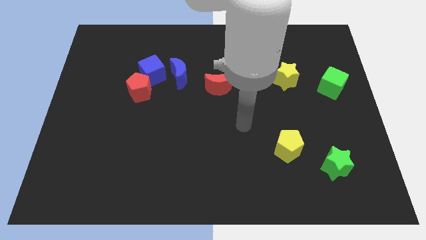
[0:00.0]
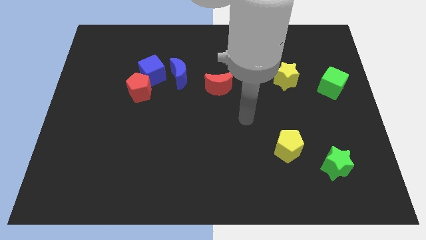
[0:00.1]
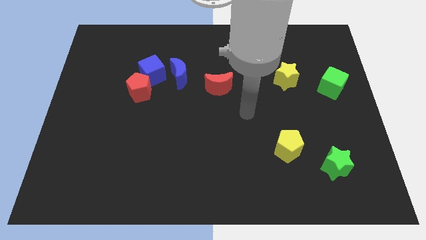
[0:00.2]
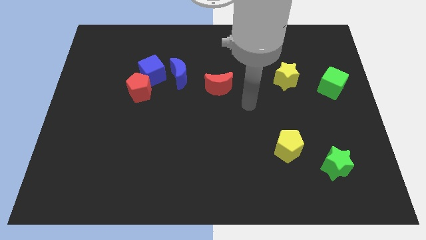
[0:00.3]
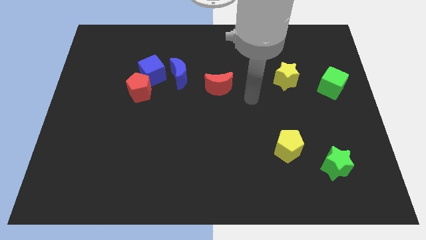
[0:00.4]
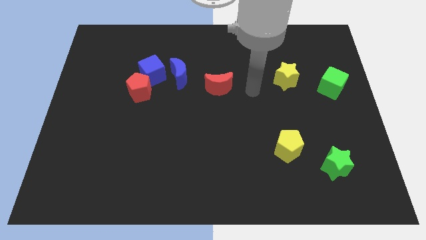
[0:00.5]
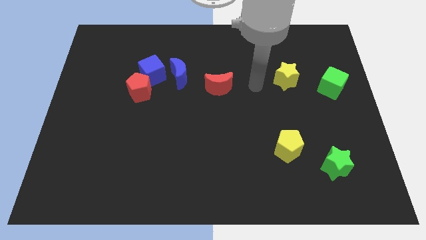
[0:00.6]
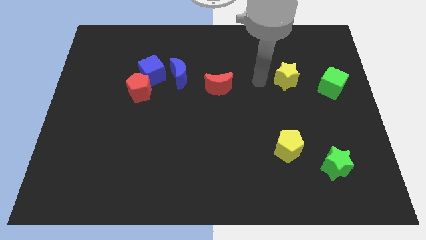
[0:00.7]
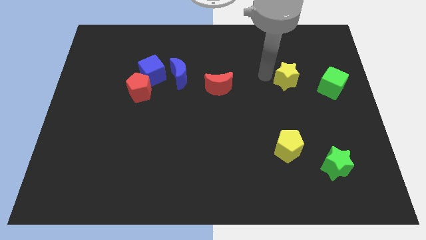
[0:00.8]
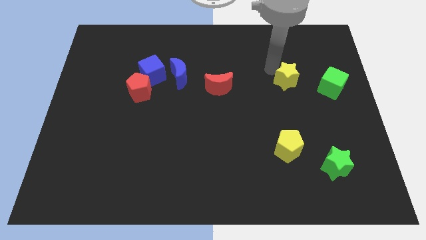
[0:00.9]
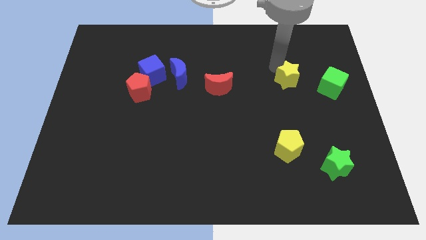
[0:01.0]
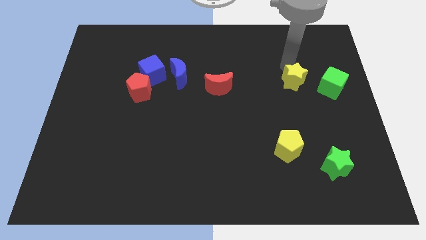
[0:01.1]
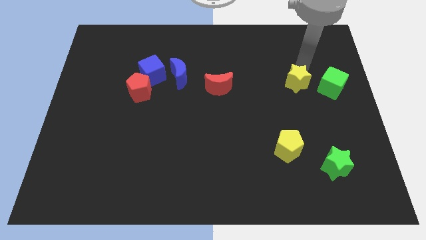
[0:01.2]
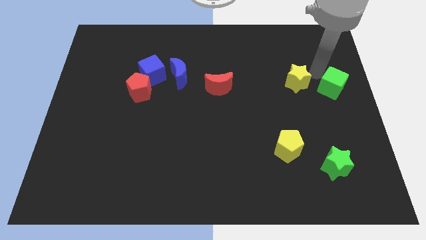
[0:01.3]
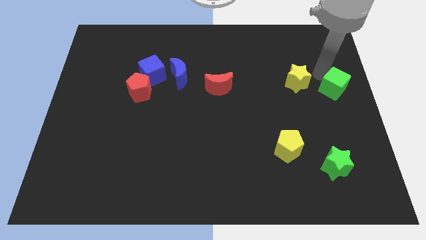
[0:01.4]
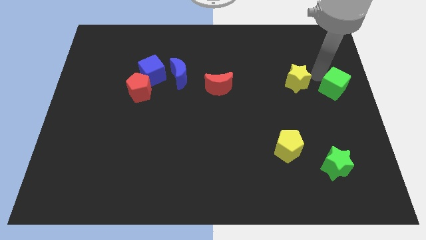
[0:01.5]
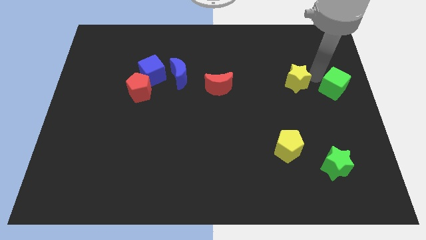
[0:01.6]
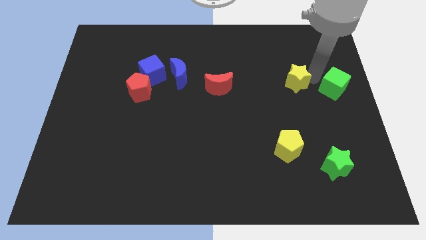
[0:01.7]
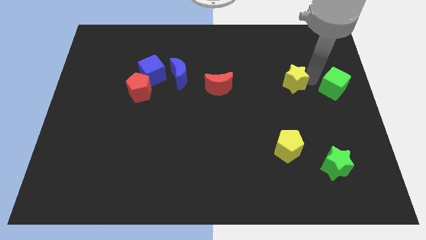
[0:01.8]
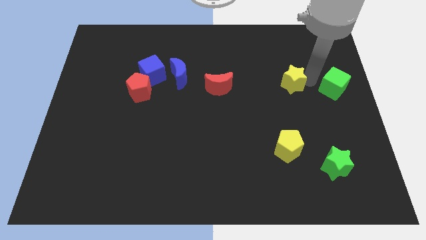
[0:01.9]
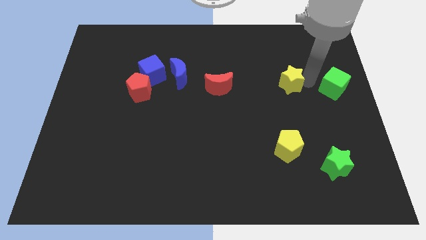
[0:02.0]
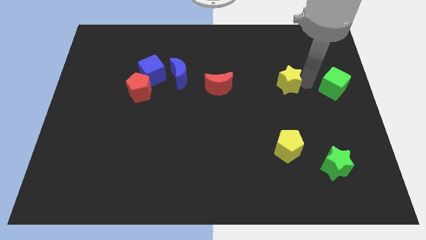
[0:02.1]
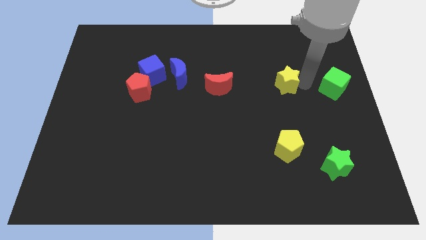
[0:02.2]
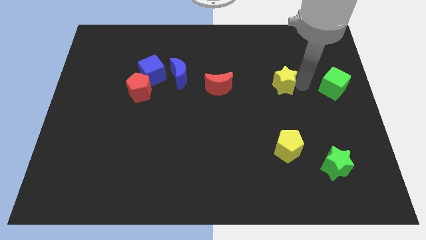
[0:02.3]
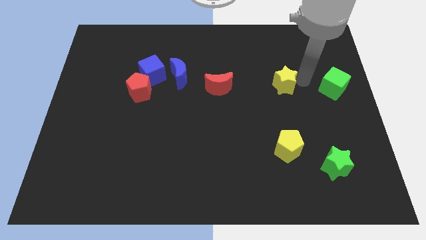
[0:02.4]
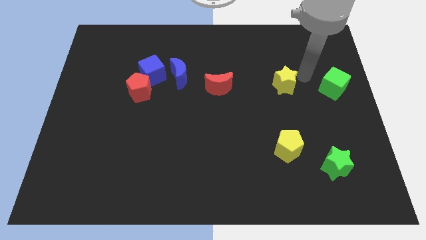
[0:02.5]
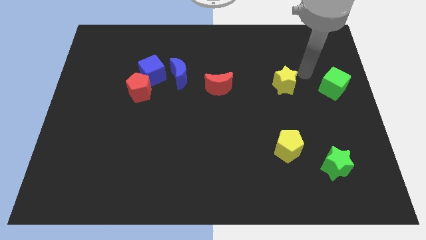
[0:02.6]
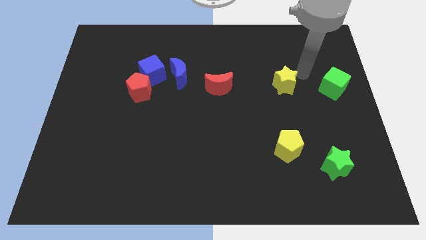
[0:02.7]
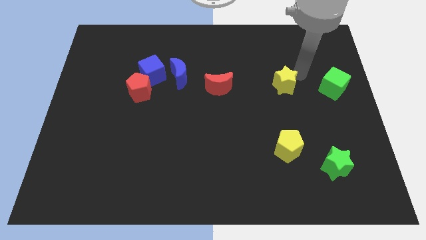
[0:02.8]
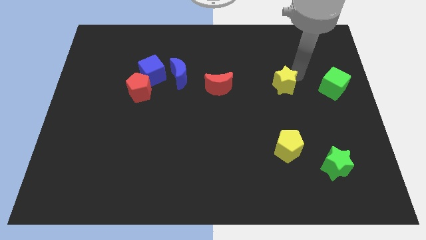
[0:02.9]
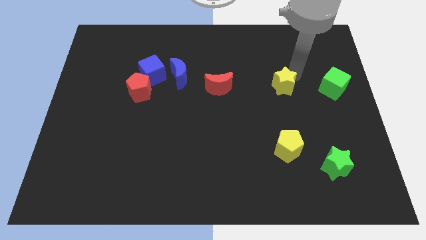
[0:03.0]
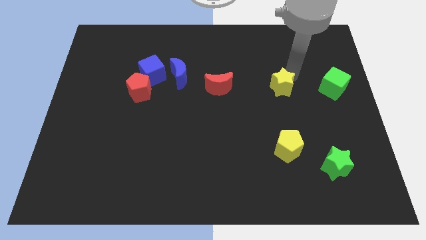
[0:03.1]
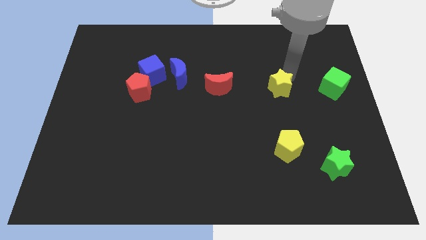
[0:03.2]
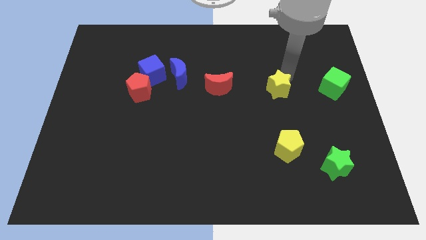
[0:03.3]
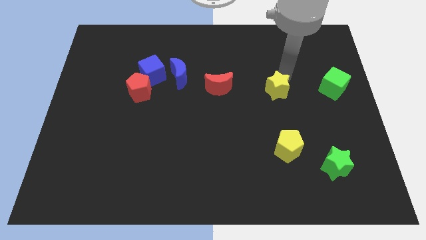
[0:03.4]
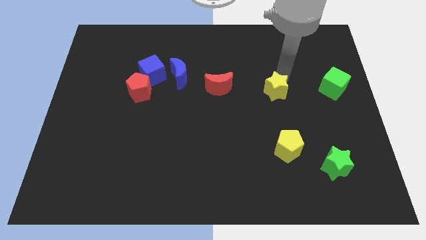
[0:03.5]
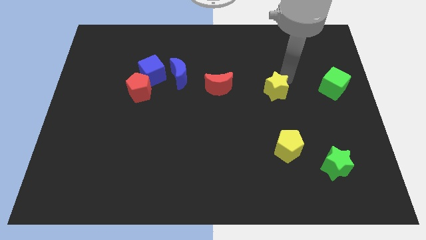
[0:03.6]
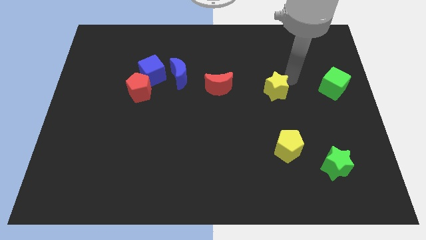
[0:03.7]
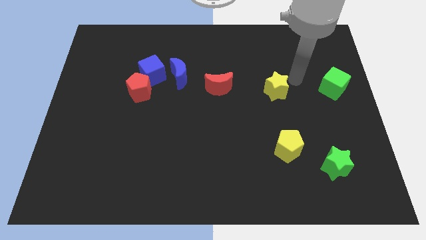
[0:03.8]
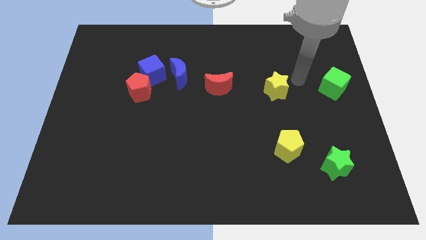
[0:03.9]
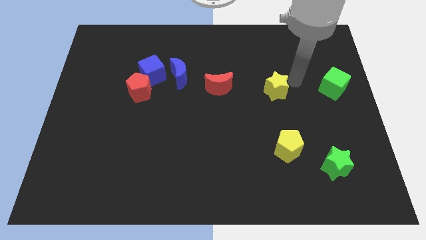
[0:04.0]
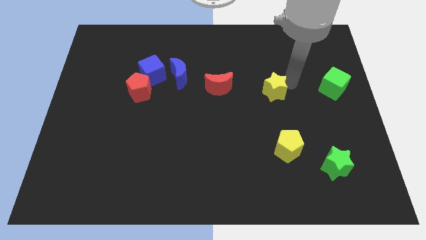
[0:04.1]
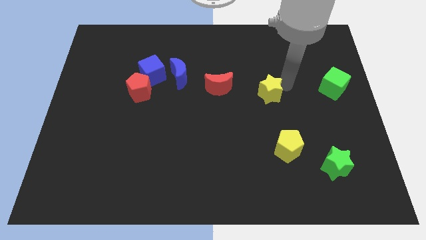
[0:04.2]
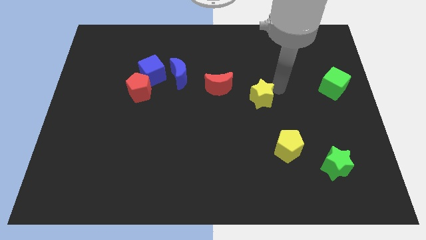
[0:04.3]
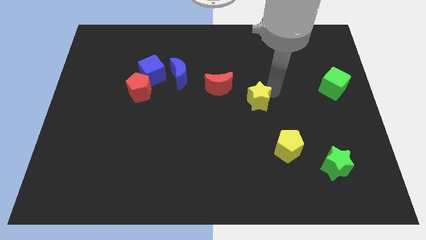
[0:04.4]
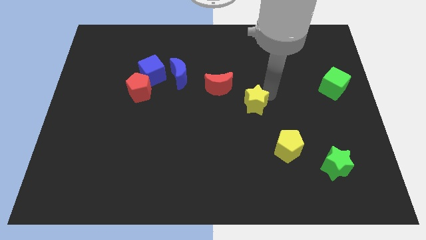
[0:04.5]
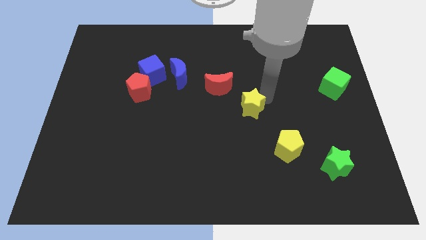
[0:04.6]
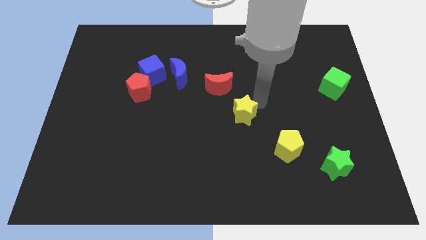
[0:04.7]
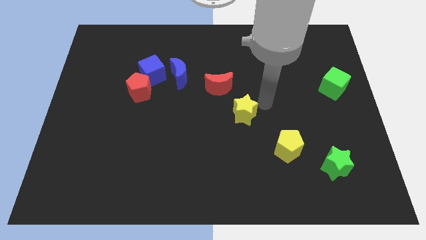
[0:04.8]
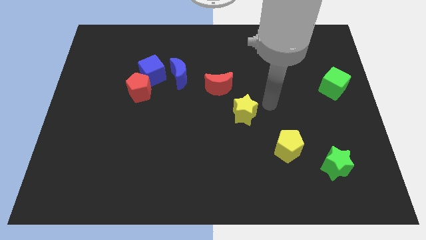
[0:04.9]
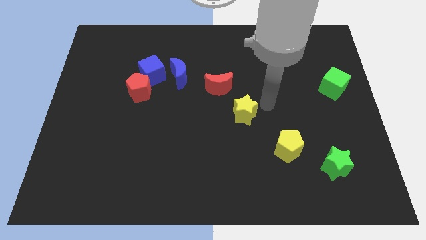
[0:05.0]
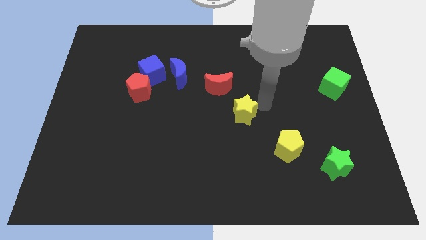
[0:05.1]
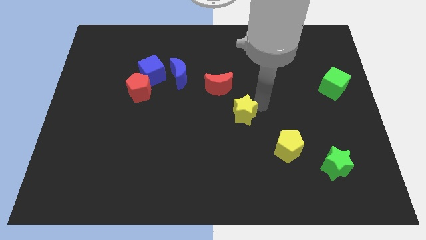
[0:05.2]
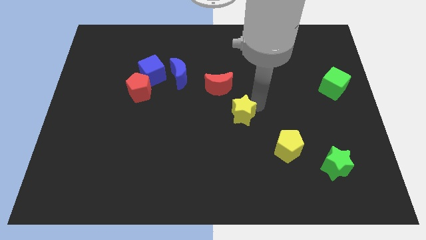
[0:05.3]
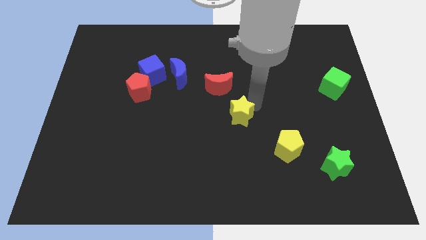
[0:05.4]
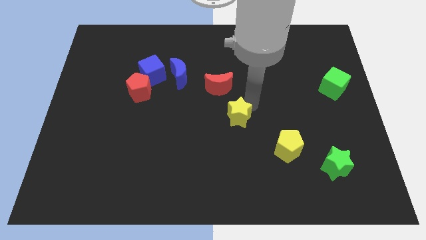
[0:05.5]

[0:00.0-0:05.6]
put the yellow star below the red moon

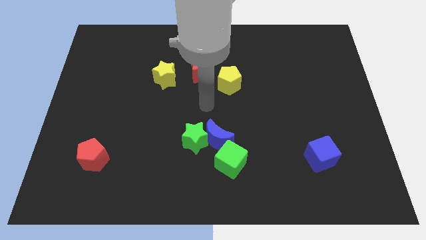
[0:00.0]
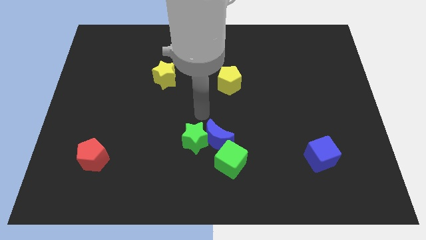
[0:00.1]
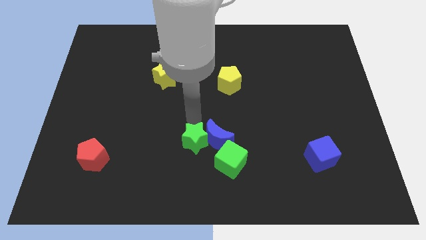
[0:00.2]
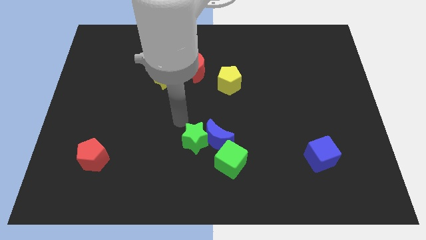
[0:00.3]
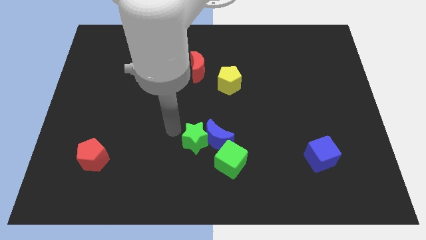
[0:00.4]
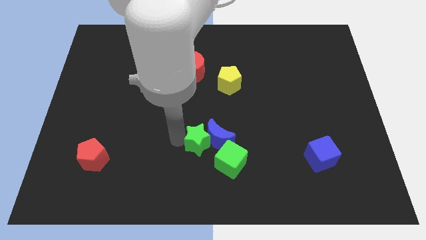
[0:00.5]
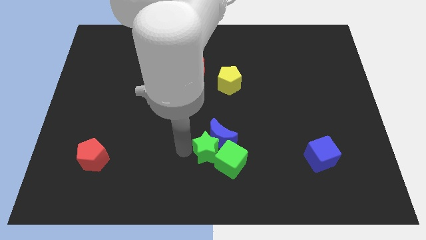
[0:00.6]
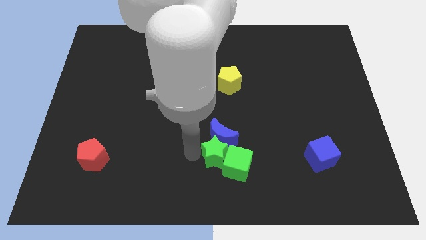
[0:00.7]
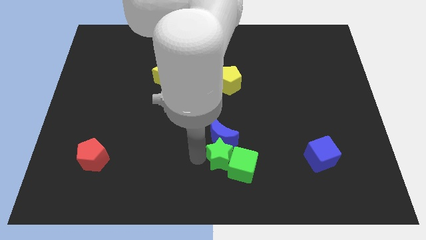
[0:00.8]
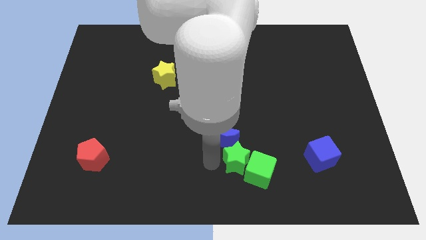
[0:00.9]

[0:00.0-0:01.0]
slide the blue moon below the yellow pentagon
